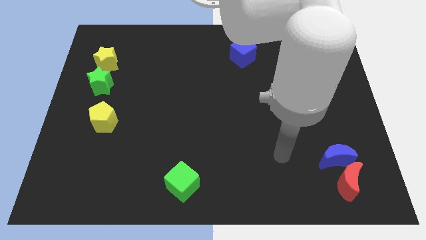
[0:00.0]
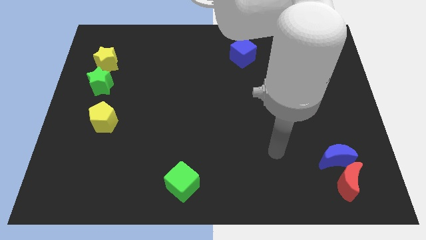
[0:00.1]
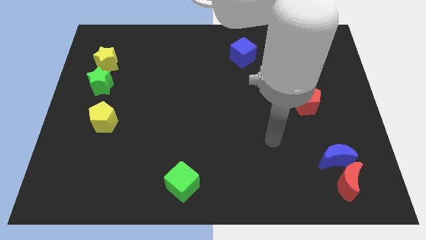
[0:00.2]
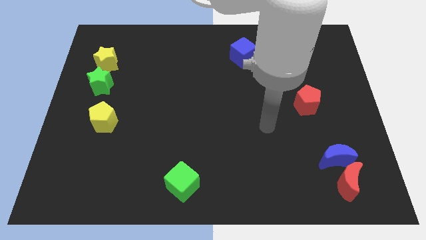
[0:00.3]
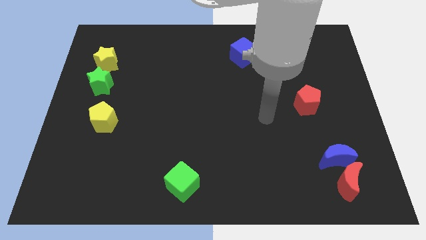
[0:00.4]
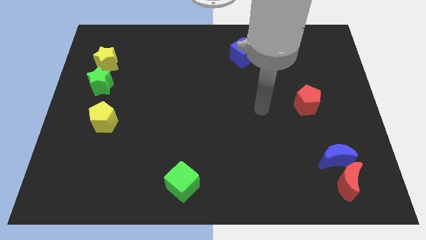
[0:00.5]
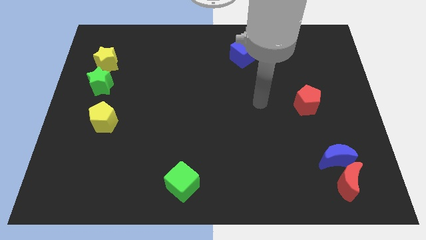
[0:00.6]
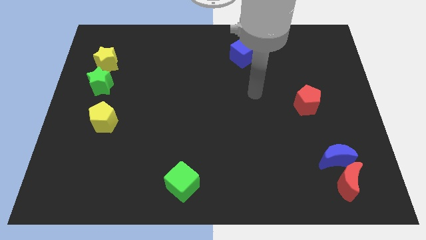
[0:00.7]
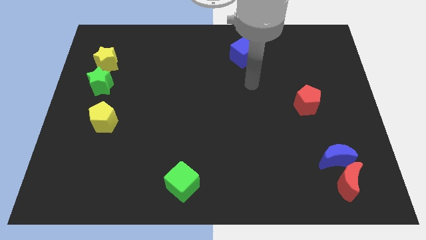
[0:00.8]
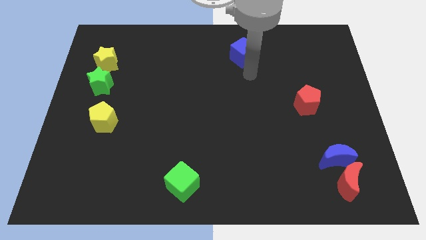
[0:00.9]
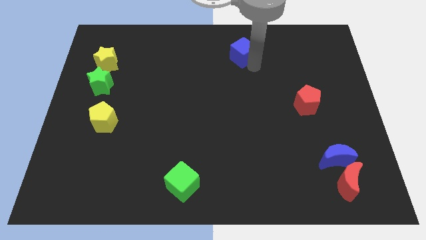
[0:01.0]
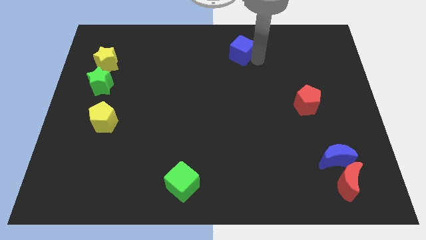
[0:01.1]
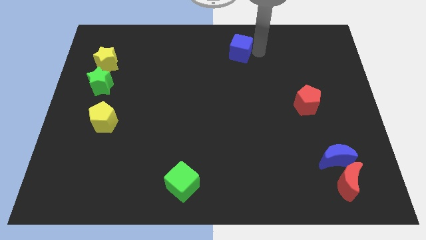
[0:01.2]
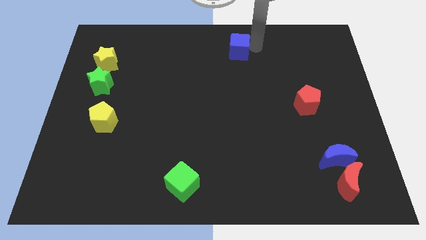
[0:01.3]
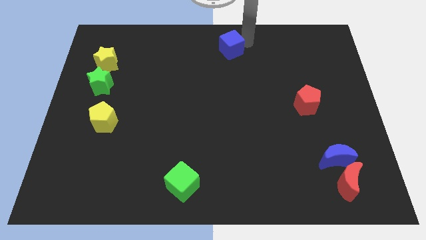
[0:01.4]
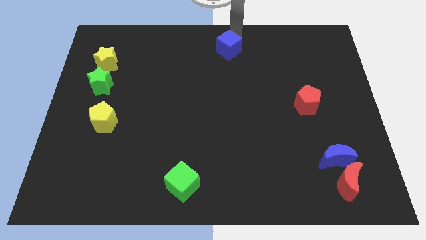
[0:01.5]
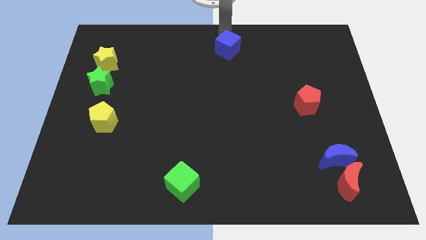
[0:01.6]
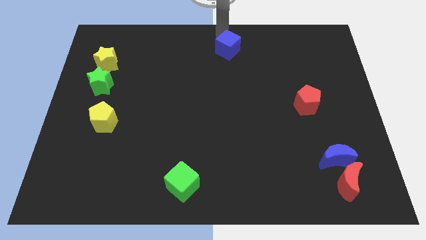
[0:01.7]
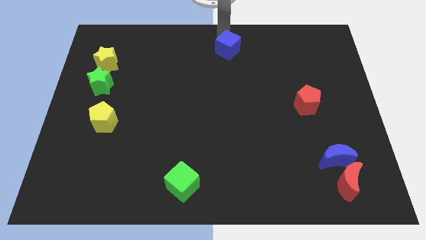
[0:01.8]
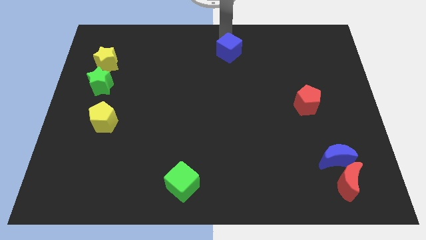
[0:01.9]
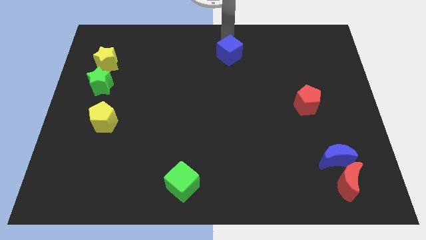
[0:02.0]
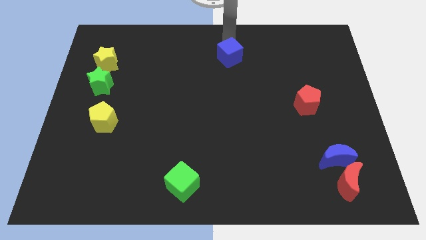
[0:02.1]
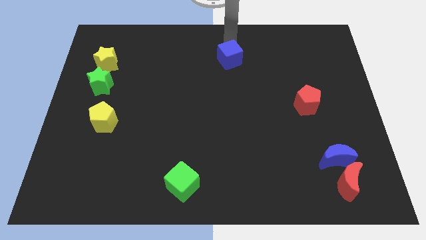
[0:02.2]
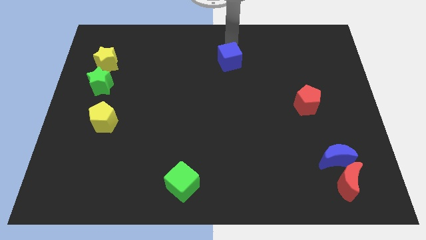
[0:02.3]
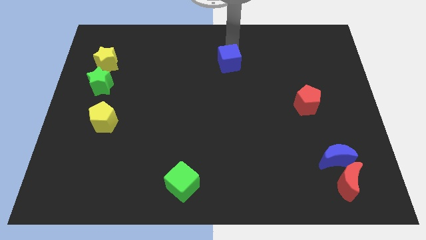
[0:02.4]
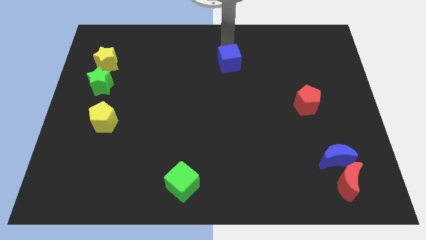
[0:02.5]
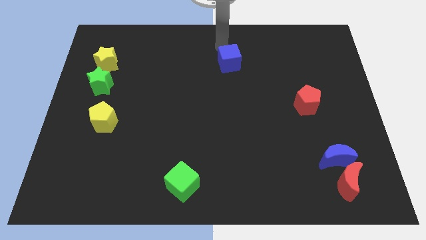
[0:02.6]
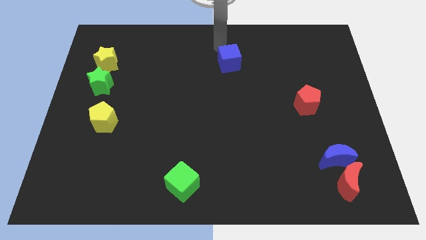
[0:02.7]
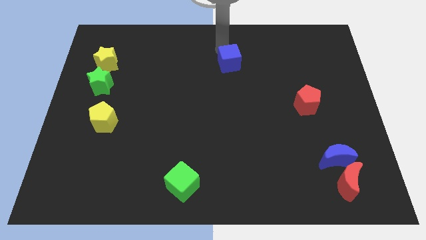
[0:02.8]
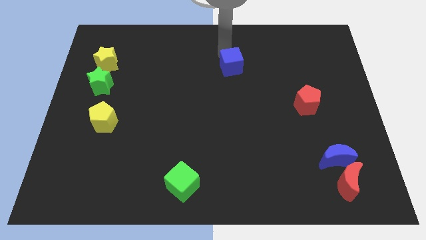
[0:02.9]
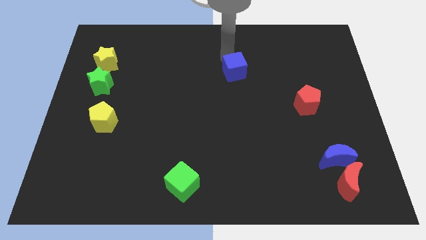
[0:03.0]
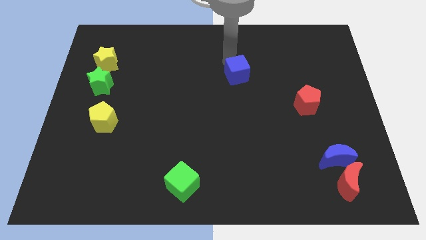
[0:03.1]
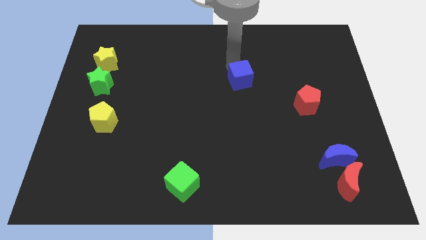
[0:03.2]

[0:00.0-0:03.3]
slightly move the blue cube downwards

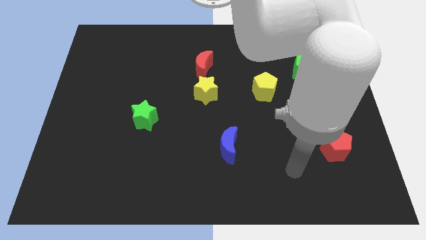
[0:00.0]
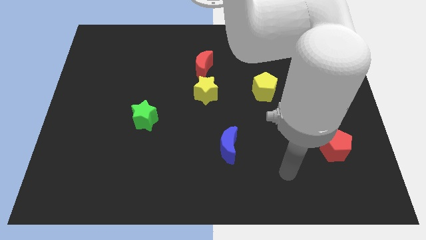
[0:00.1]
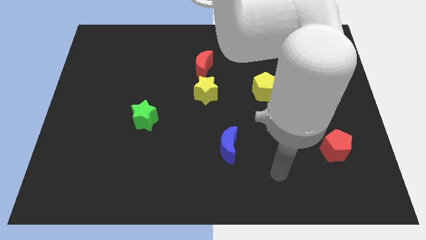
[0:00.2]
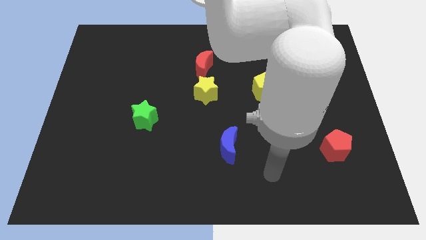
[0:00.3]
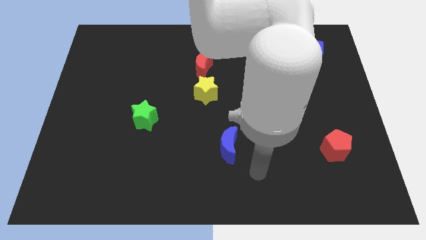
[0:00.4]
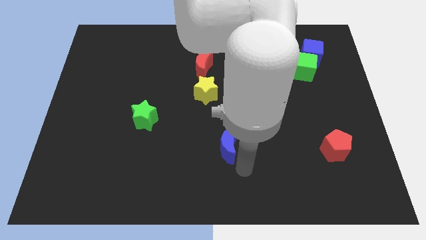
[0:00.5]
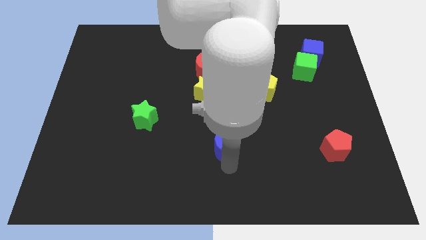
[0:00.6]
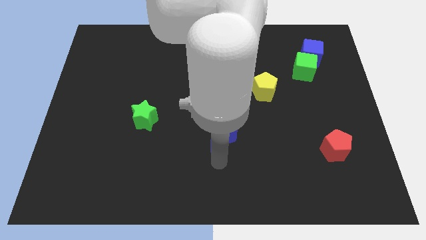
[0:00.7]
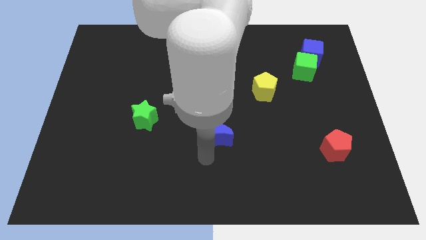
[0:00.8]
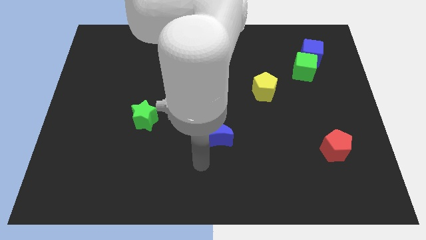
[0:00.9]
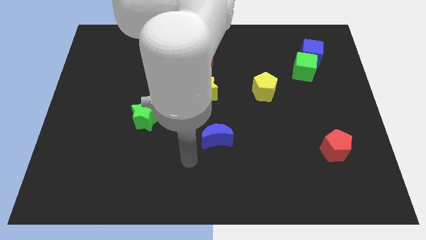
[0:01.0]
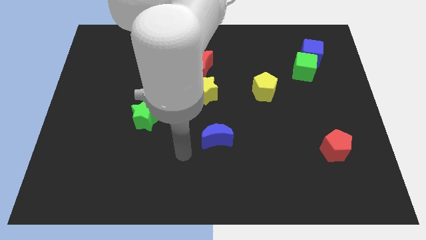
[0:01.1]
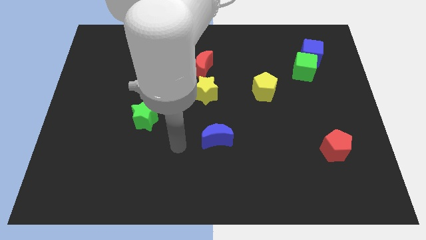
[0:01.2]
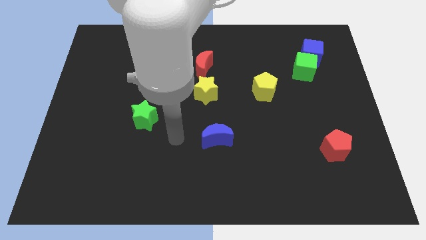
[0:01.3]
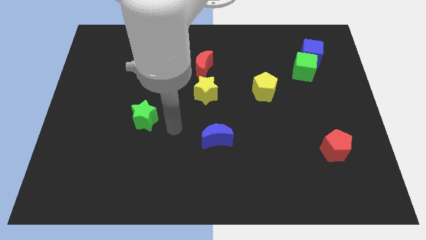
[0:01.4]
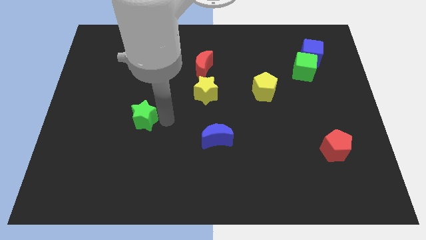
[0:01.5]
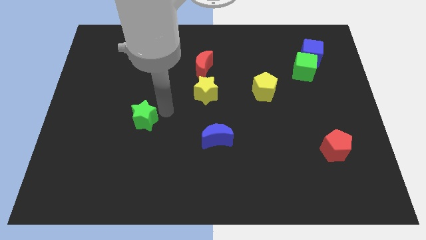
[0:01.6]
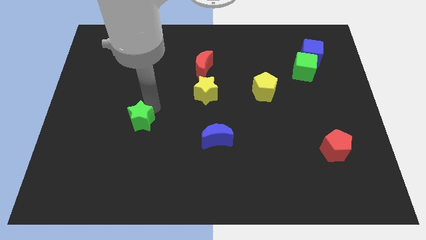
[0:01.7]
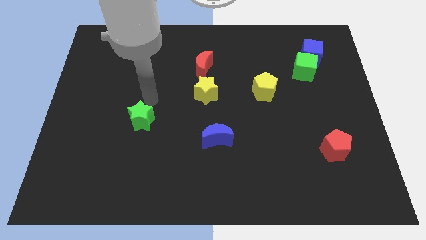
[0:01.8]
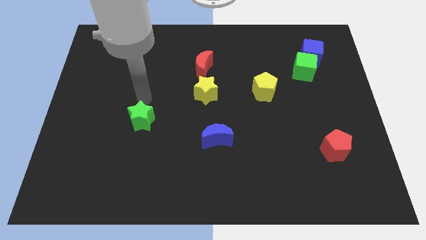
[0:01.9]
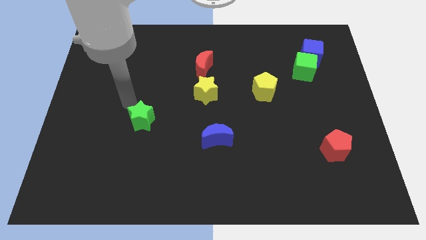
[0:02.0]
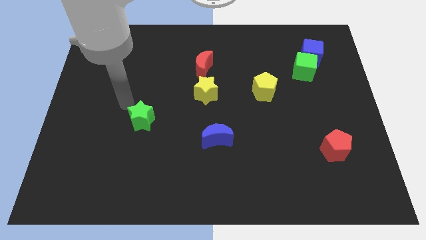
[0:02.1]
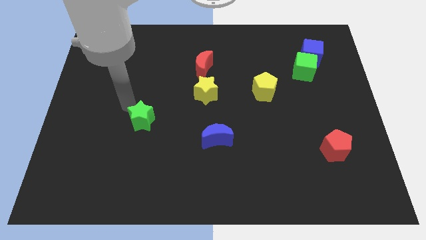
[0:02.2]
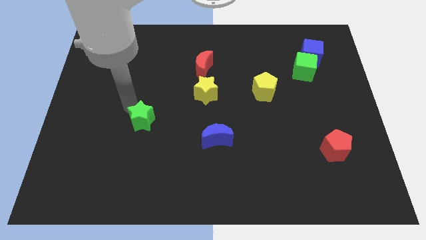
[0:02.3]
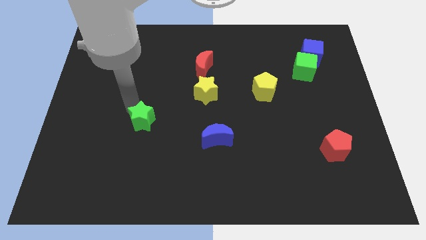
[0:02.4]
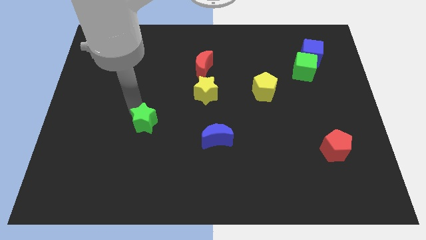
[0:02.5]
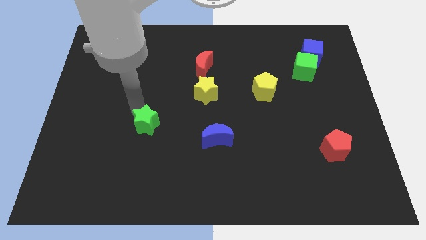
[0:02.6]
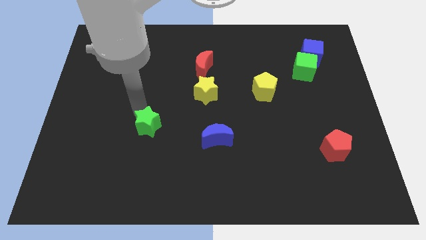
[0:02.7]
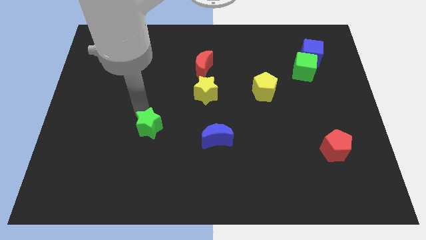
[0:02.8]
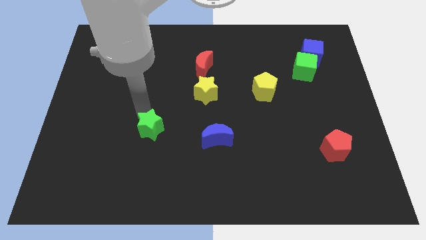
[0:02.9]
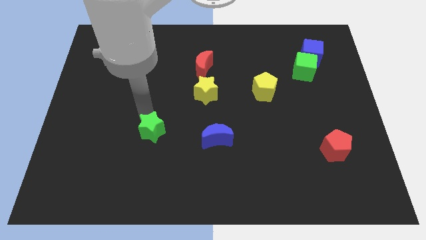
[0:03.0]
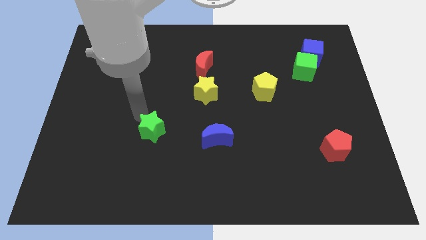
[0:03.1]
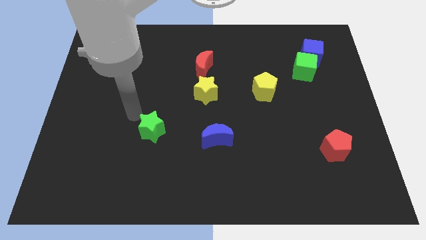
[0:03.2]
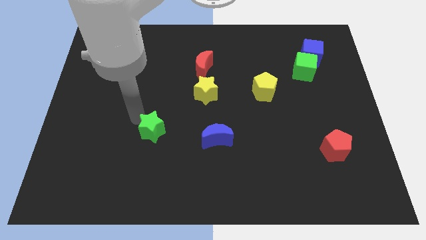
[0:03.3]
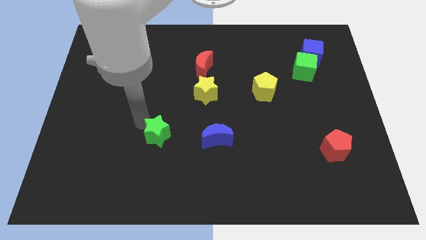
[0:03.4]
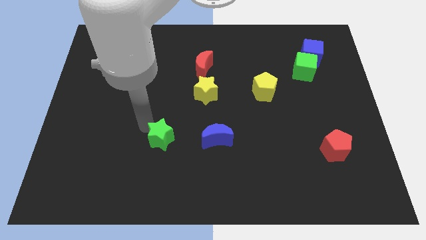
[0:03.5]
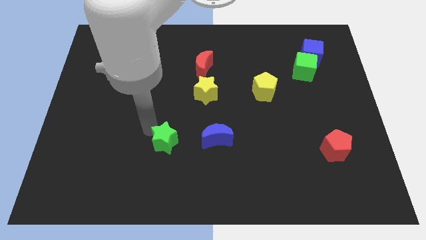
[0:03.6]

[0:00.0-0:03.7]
slightly move the green star downwards and right

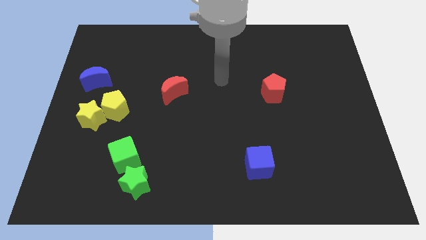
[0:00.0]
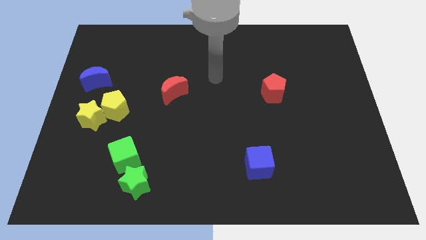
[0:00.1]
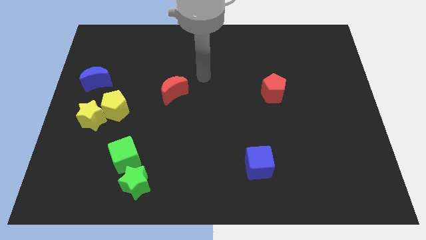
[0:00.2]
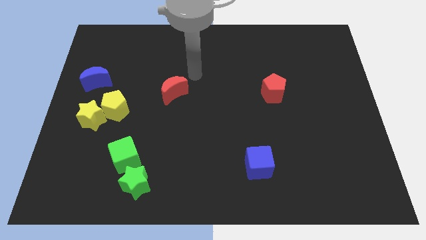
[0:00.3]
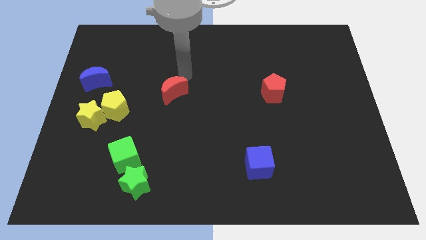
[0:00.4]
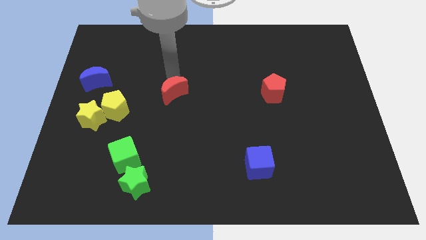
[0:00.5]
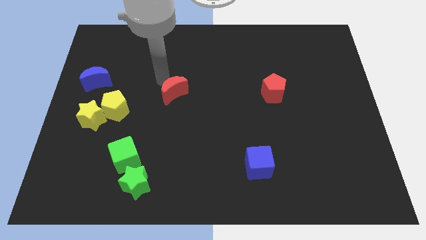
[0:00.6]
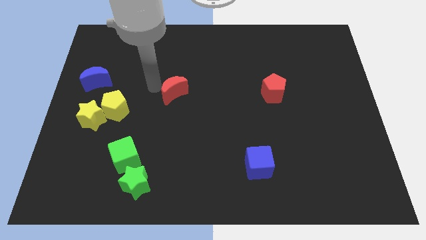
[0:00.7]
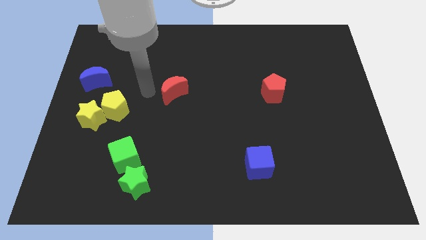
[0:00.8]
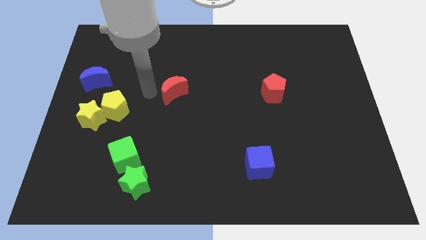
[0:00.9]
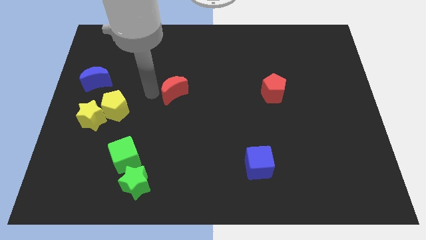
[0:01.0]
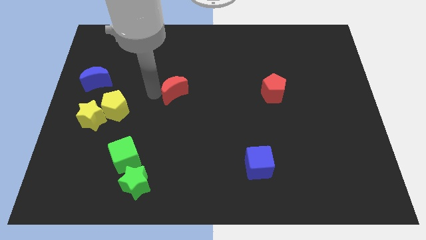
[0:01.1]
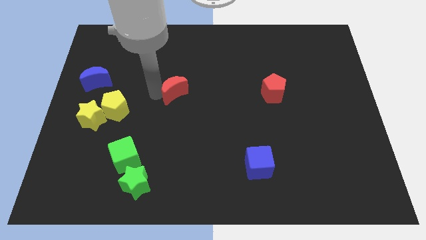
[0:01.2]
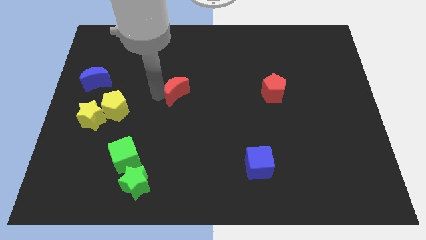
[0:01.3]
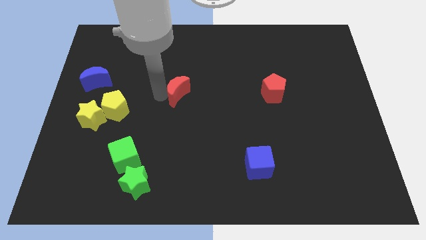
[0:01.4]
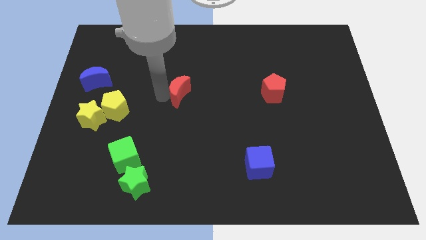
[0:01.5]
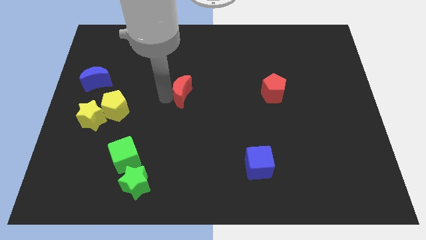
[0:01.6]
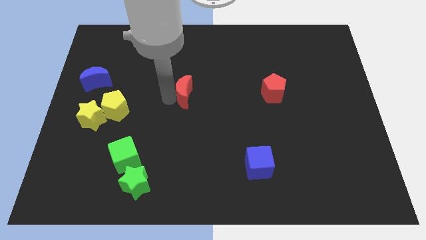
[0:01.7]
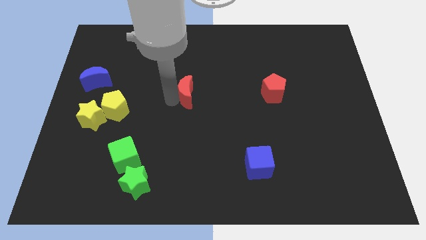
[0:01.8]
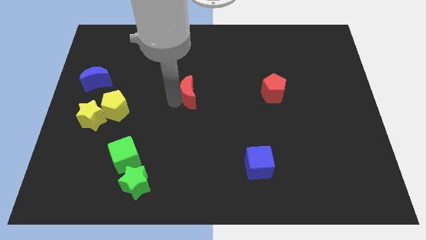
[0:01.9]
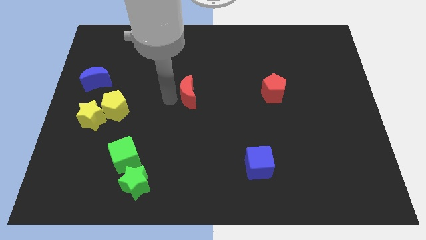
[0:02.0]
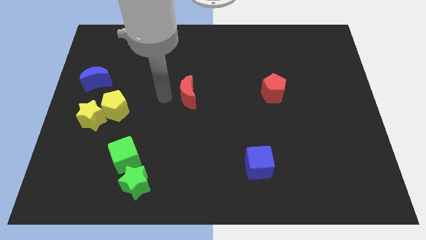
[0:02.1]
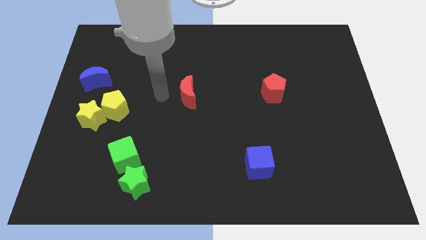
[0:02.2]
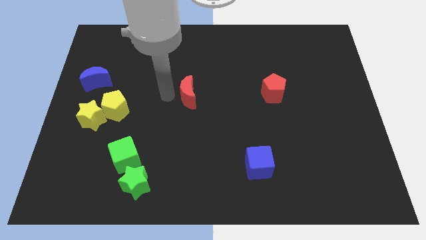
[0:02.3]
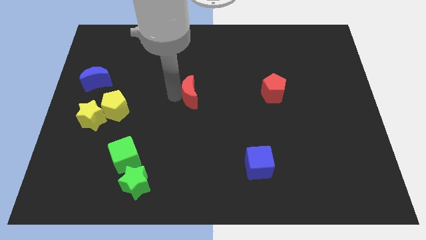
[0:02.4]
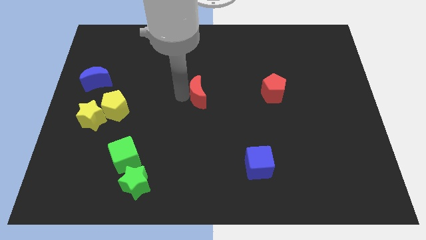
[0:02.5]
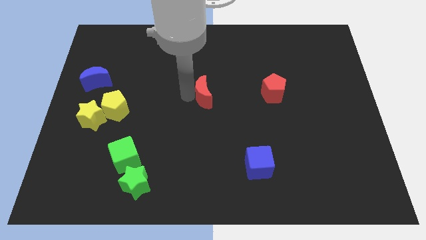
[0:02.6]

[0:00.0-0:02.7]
slide the red moon to the right slightly
